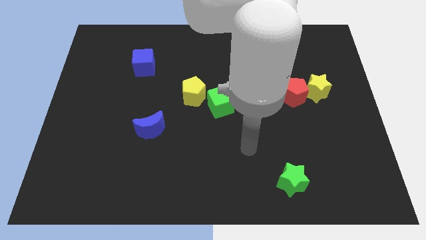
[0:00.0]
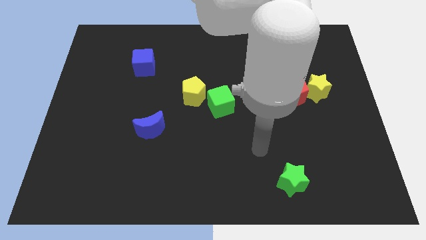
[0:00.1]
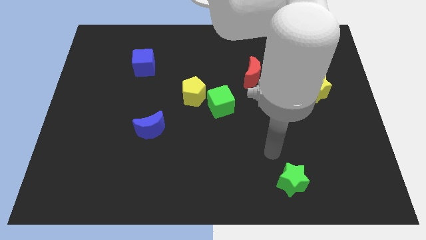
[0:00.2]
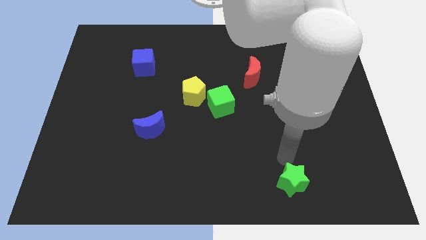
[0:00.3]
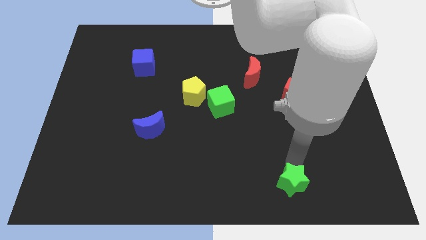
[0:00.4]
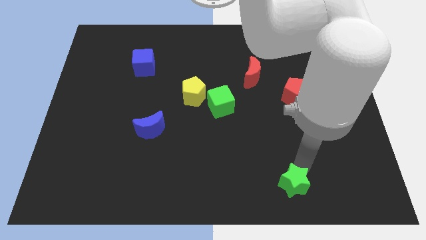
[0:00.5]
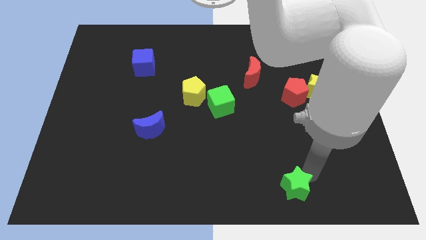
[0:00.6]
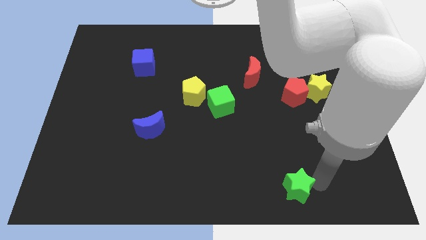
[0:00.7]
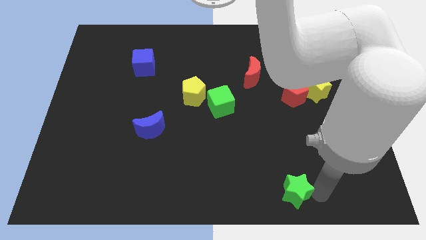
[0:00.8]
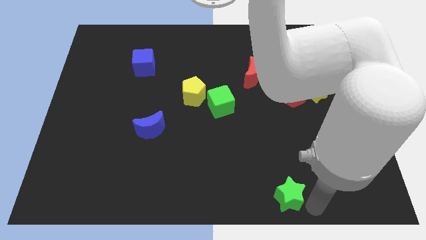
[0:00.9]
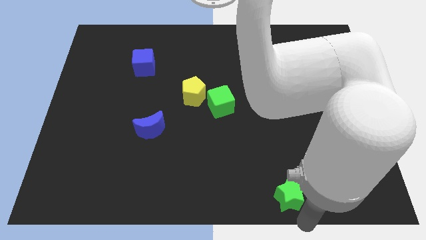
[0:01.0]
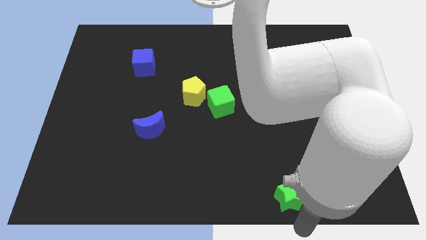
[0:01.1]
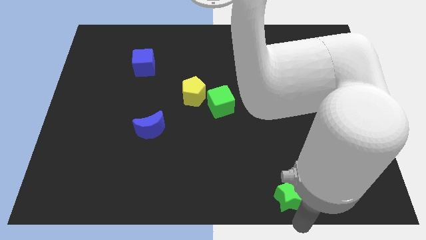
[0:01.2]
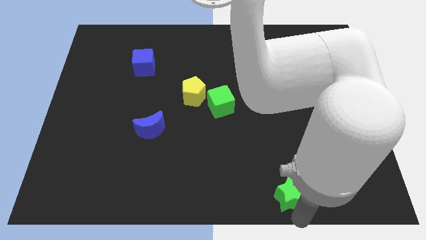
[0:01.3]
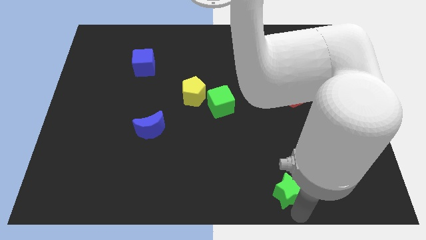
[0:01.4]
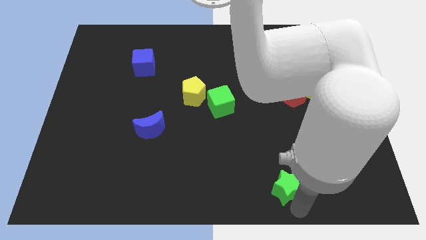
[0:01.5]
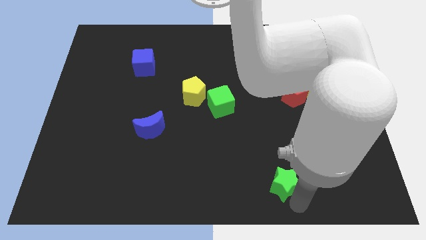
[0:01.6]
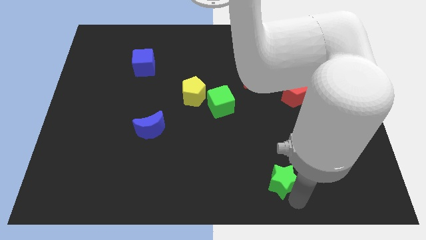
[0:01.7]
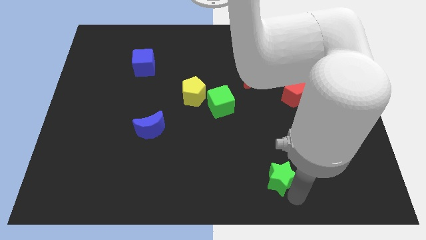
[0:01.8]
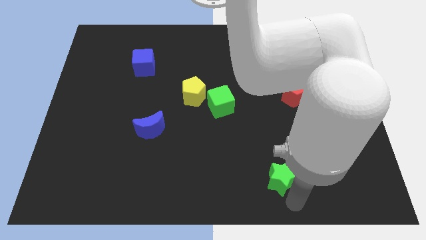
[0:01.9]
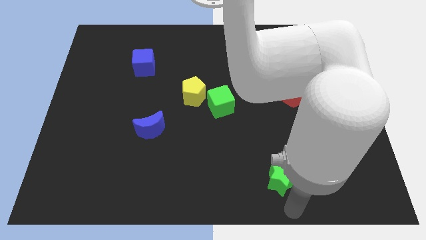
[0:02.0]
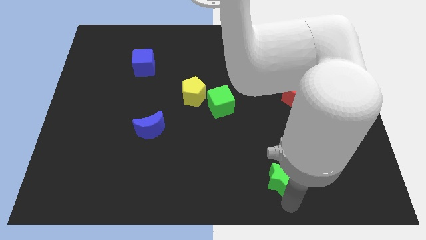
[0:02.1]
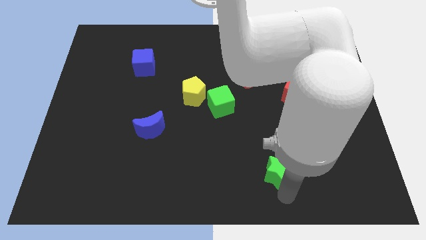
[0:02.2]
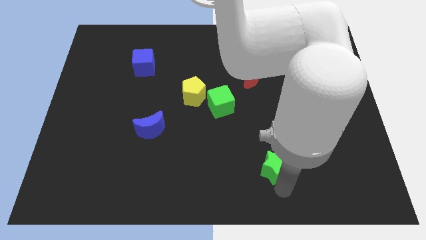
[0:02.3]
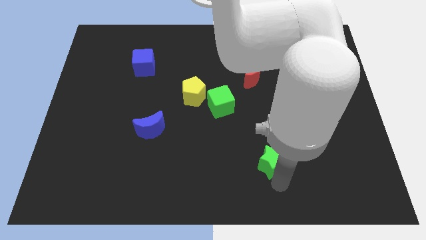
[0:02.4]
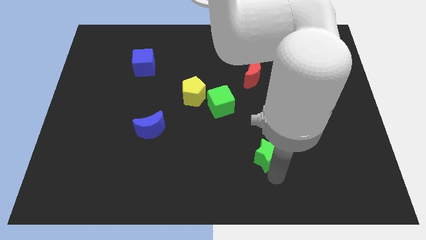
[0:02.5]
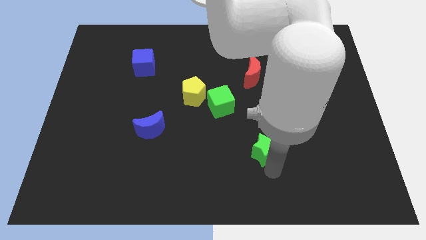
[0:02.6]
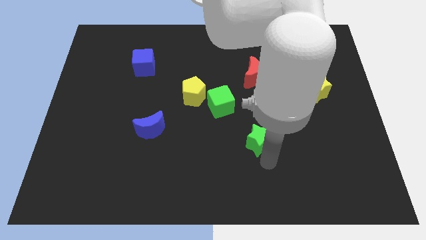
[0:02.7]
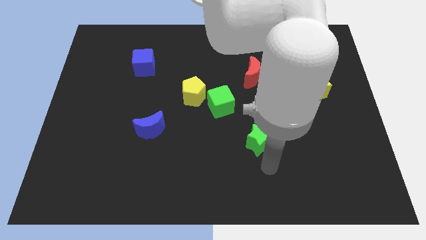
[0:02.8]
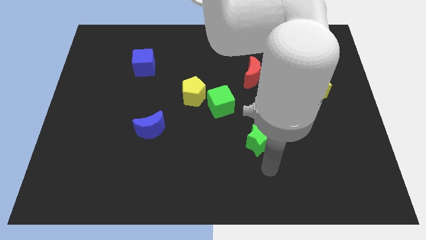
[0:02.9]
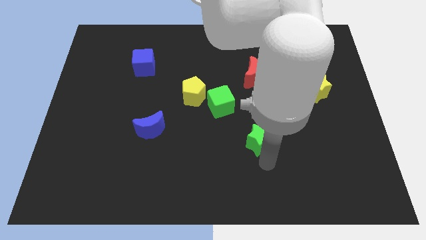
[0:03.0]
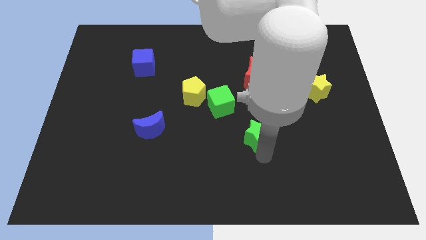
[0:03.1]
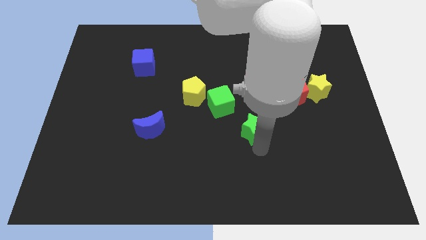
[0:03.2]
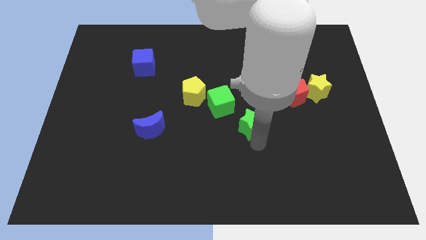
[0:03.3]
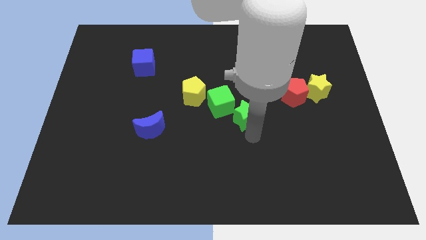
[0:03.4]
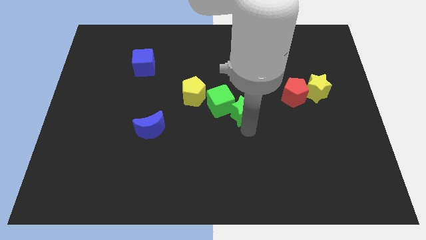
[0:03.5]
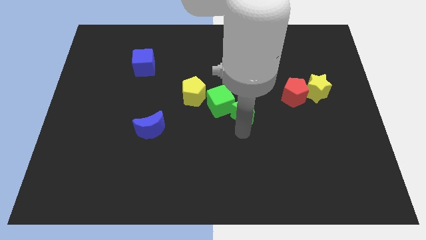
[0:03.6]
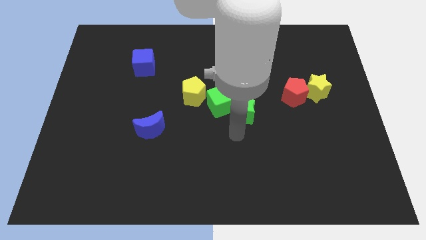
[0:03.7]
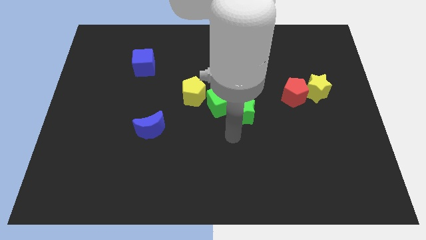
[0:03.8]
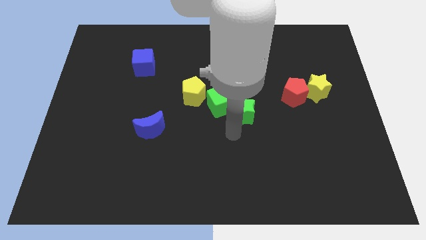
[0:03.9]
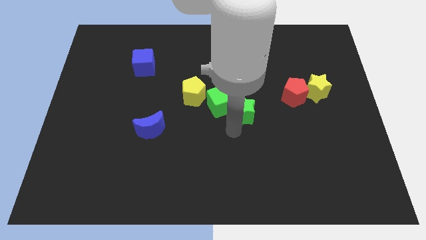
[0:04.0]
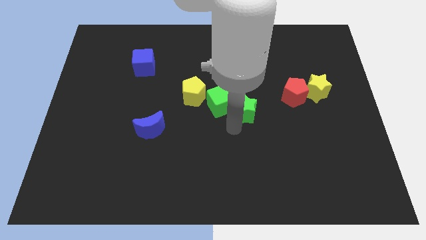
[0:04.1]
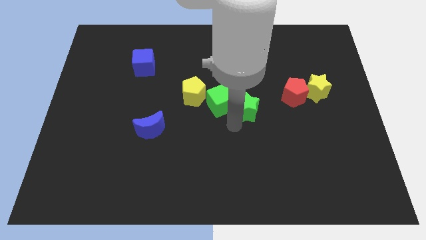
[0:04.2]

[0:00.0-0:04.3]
move the green star left of the red pentagon

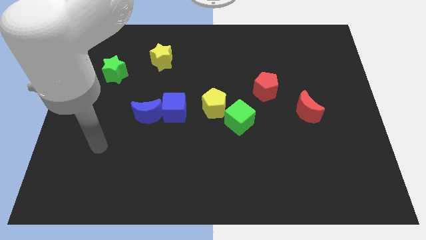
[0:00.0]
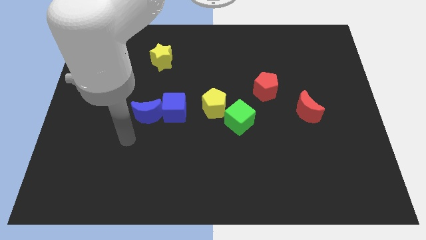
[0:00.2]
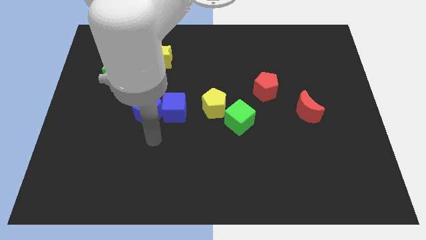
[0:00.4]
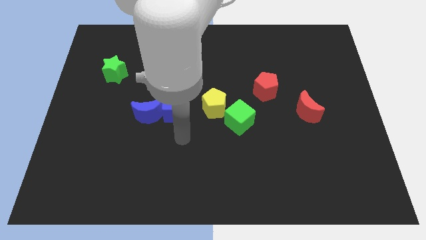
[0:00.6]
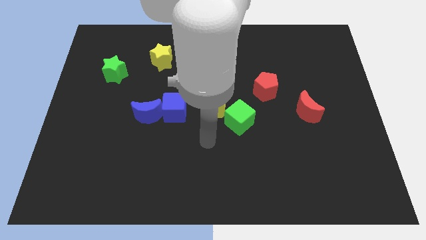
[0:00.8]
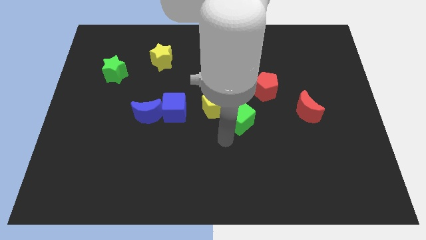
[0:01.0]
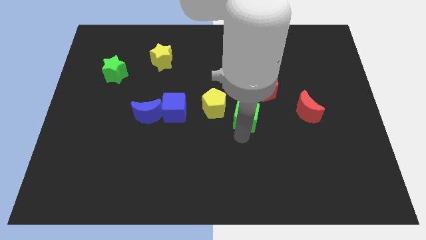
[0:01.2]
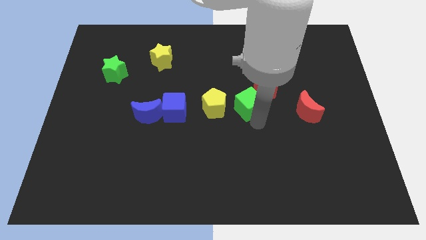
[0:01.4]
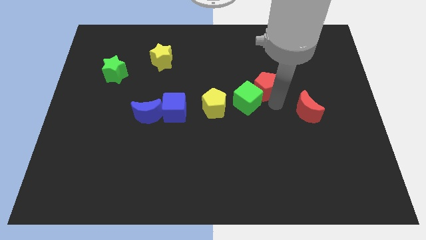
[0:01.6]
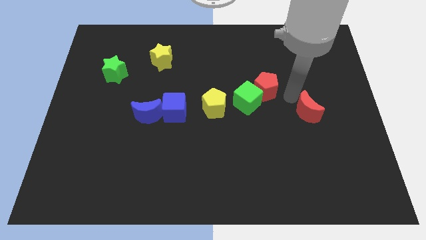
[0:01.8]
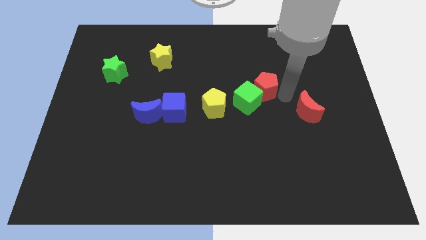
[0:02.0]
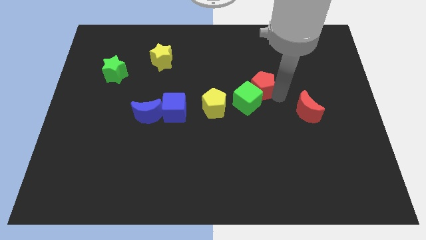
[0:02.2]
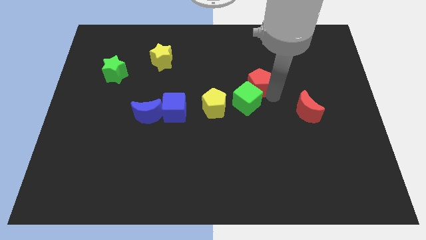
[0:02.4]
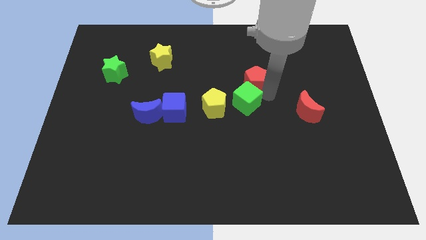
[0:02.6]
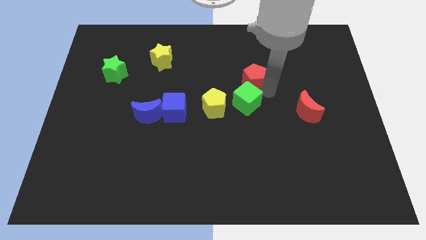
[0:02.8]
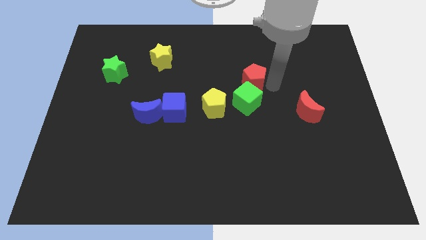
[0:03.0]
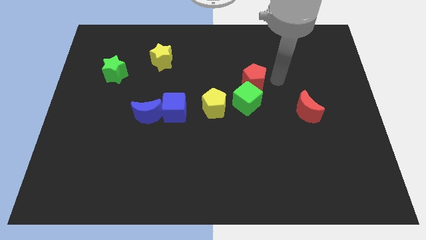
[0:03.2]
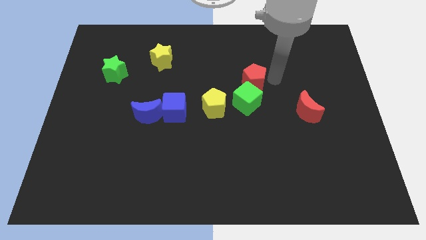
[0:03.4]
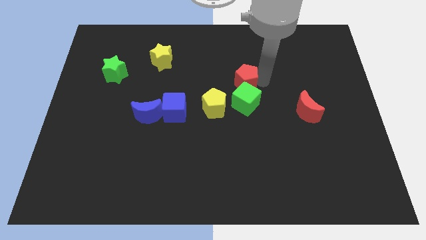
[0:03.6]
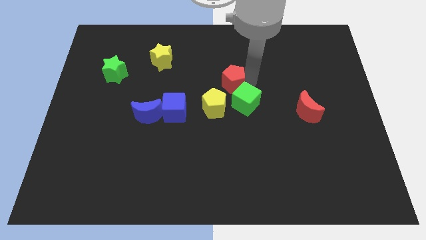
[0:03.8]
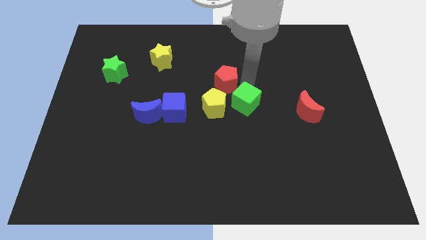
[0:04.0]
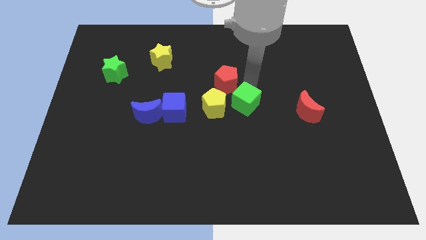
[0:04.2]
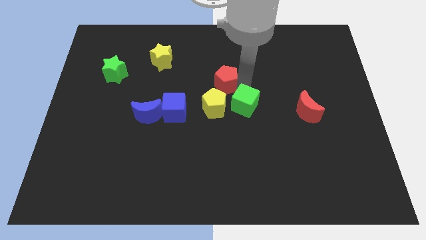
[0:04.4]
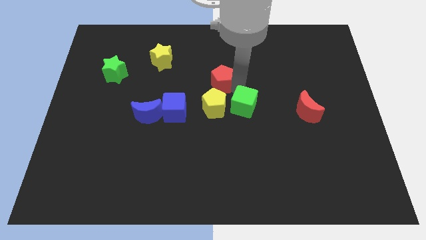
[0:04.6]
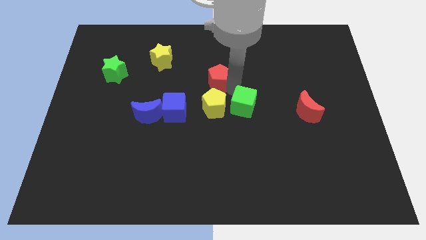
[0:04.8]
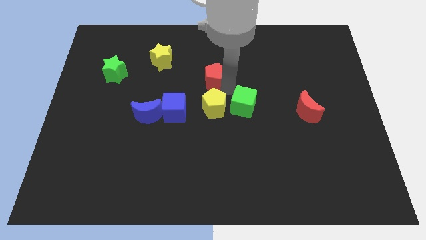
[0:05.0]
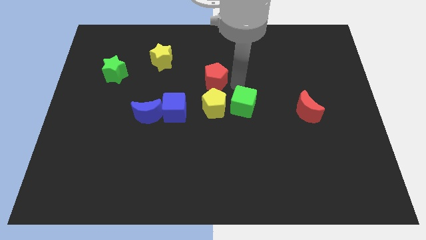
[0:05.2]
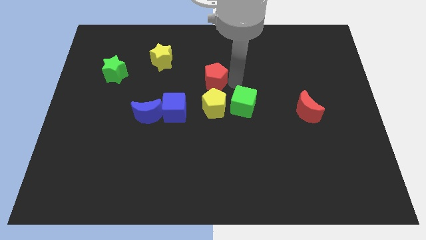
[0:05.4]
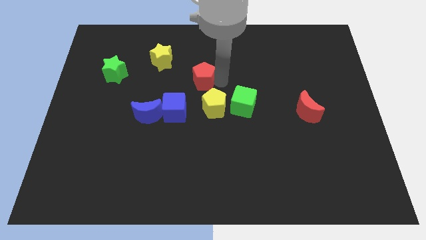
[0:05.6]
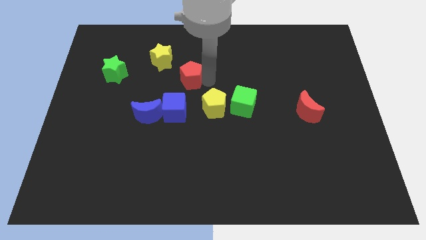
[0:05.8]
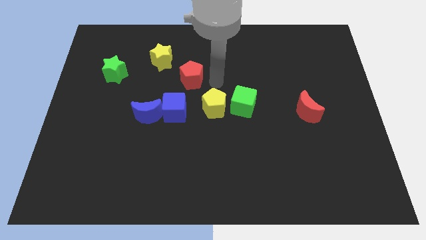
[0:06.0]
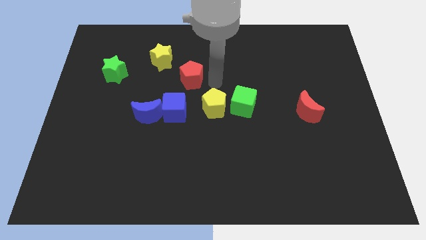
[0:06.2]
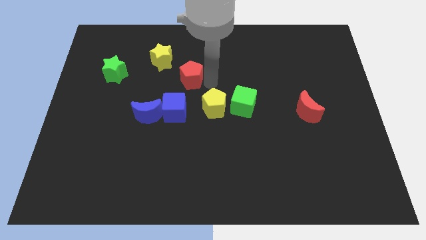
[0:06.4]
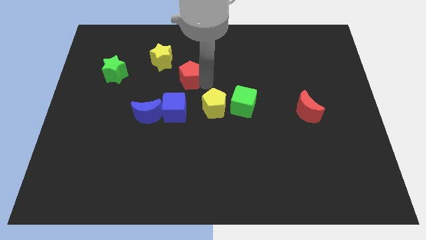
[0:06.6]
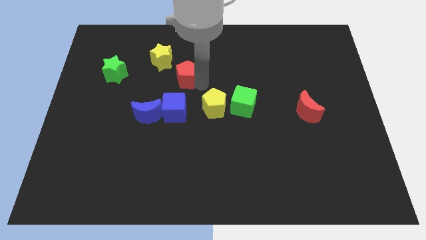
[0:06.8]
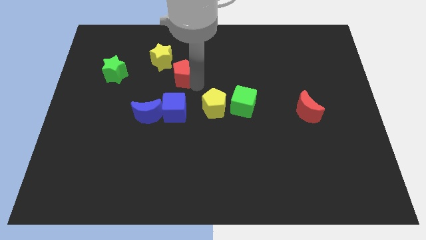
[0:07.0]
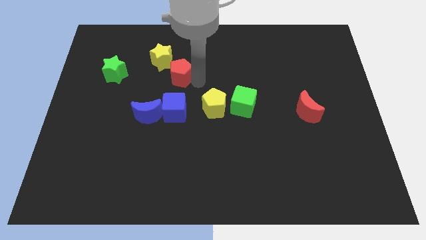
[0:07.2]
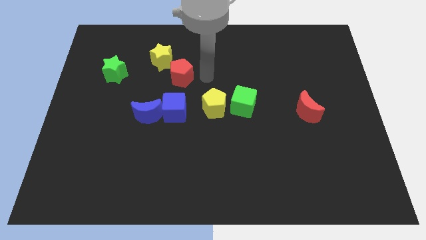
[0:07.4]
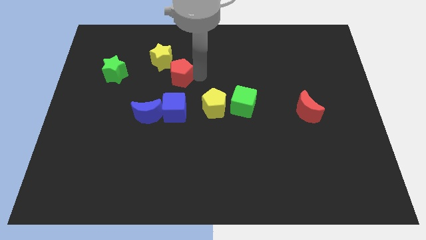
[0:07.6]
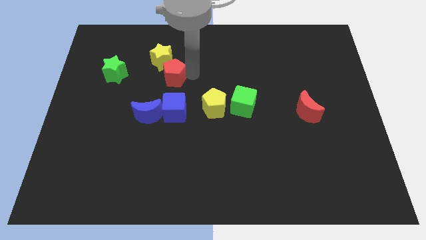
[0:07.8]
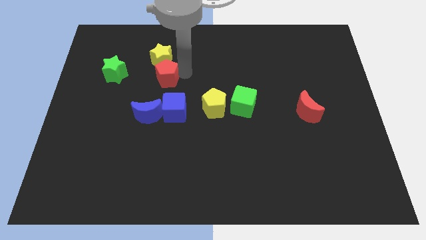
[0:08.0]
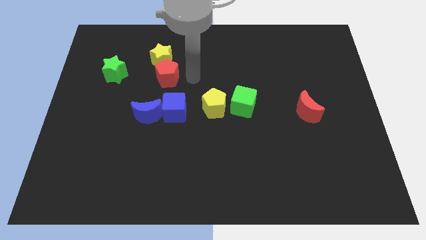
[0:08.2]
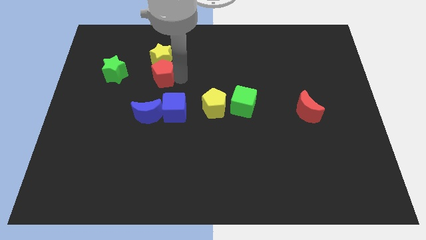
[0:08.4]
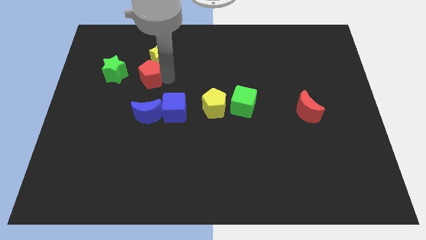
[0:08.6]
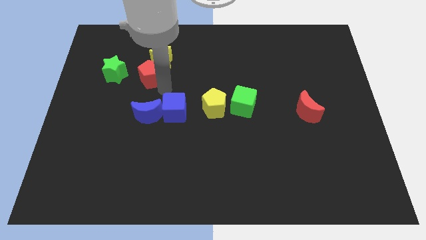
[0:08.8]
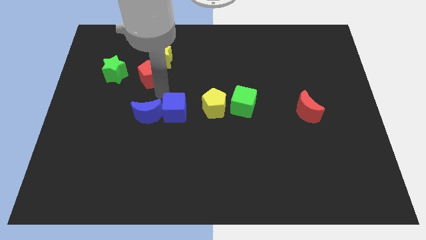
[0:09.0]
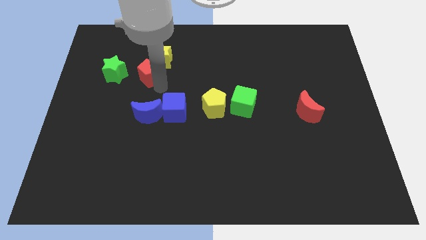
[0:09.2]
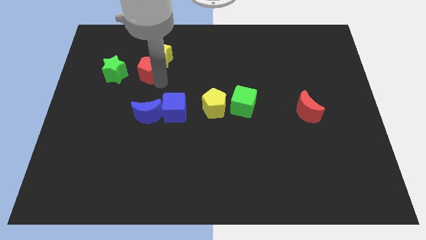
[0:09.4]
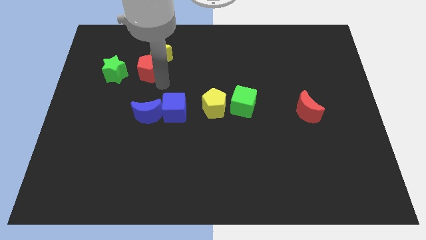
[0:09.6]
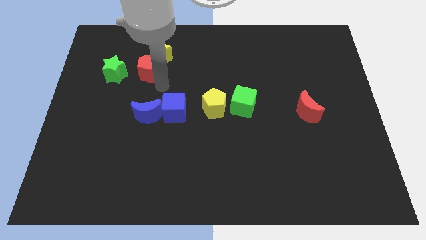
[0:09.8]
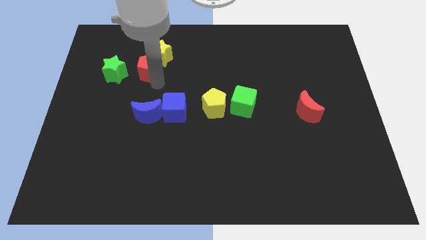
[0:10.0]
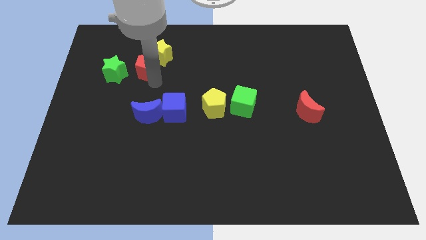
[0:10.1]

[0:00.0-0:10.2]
move the red pentagon to the top right side of the green star
